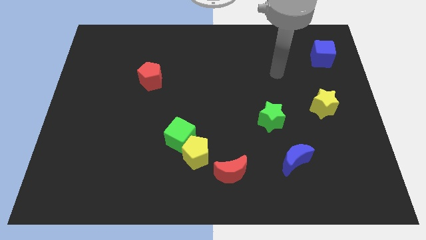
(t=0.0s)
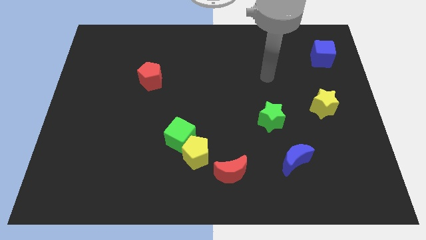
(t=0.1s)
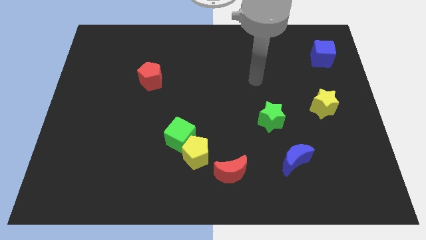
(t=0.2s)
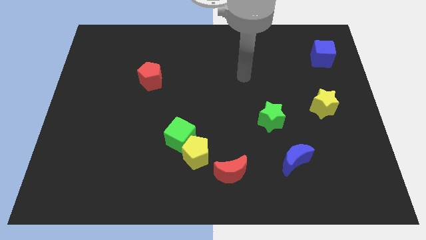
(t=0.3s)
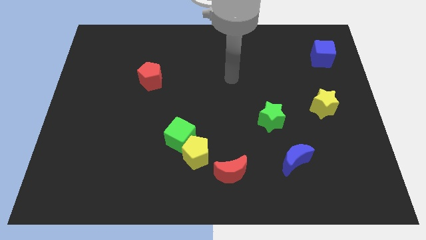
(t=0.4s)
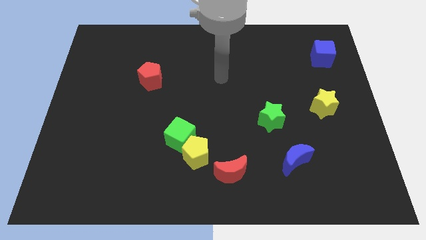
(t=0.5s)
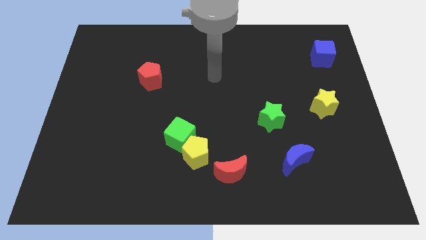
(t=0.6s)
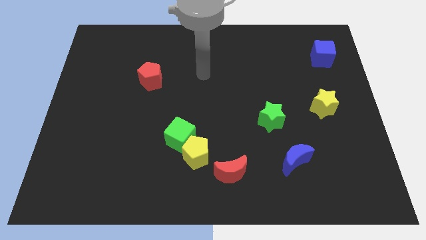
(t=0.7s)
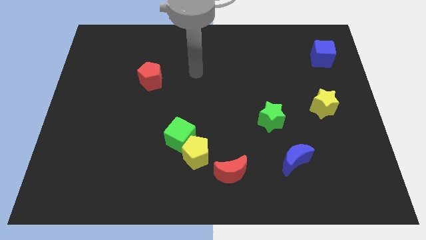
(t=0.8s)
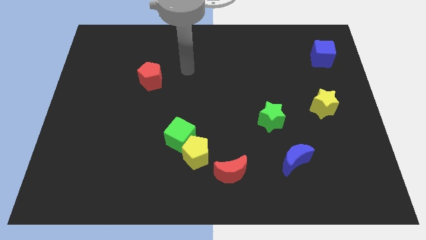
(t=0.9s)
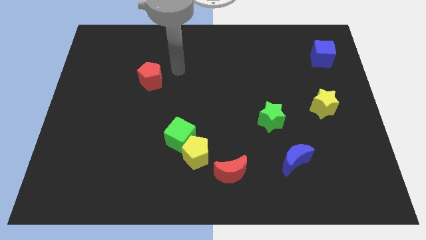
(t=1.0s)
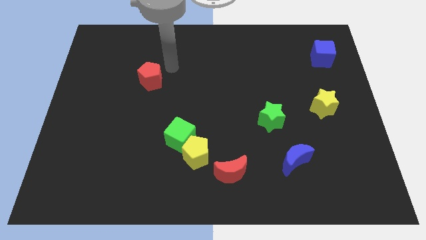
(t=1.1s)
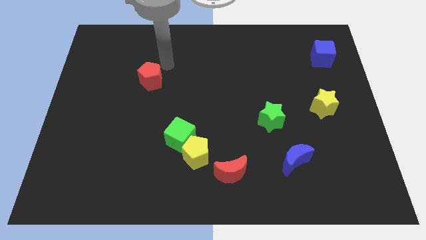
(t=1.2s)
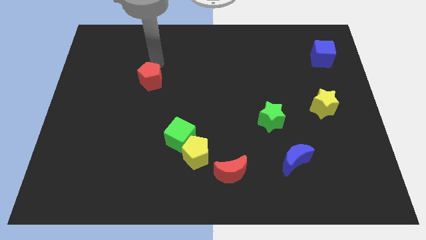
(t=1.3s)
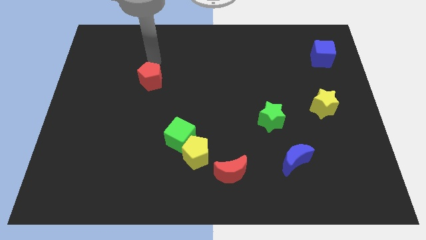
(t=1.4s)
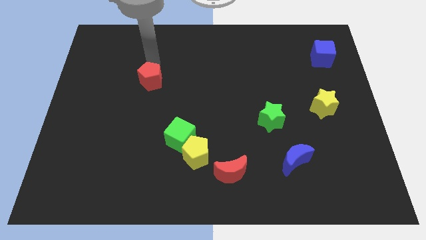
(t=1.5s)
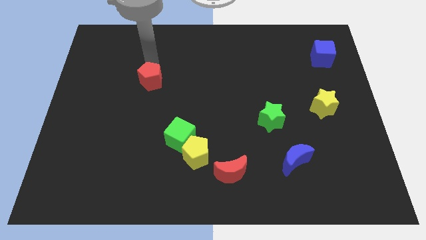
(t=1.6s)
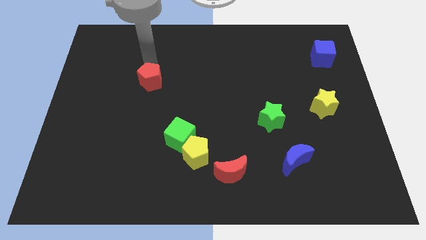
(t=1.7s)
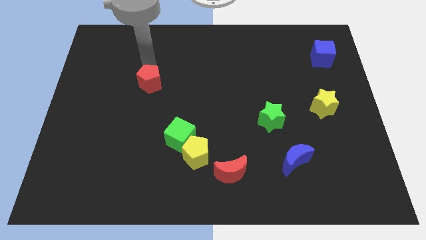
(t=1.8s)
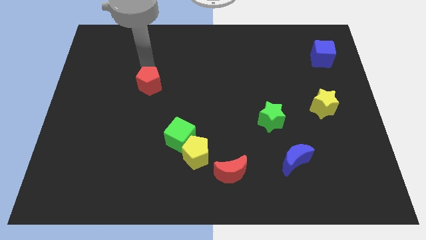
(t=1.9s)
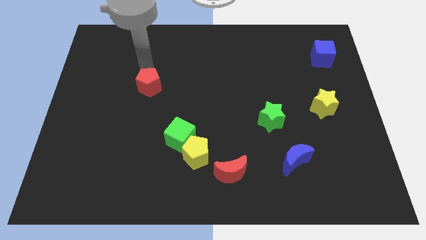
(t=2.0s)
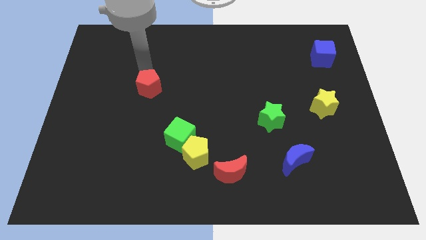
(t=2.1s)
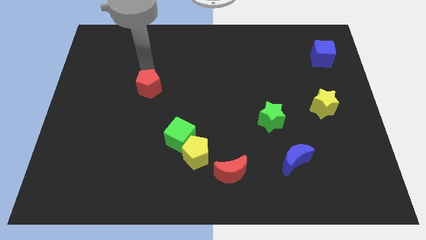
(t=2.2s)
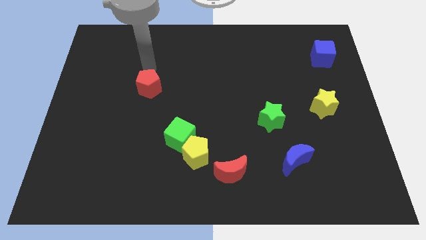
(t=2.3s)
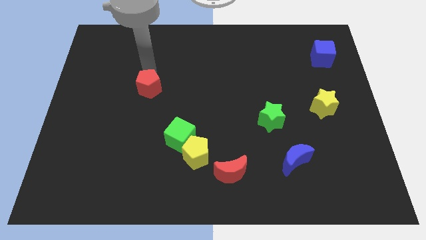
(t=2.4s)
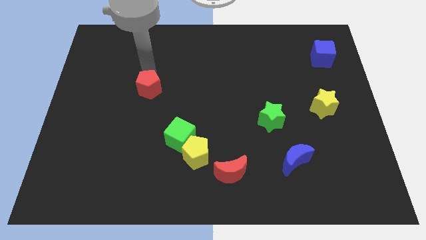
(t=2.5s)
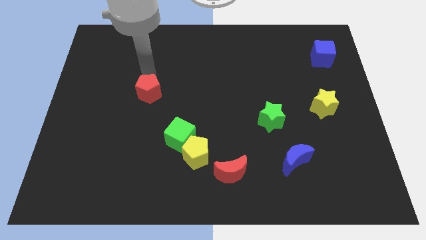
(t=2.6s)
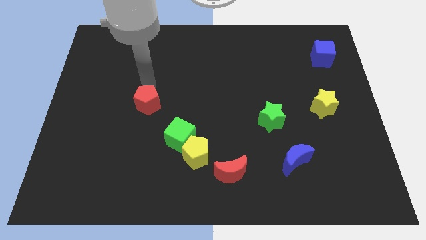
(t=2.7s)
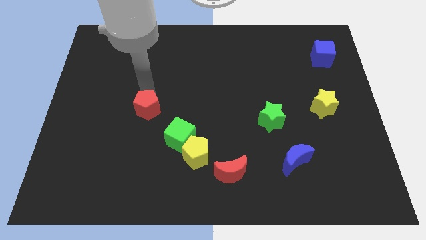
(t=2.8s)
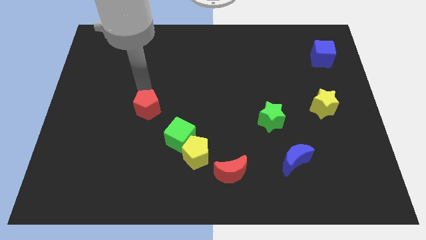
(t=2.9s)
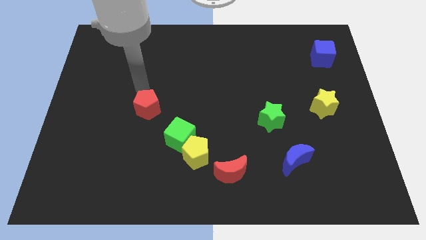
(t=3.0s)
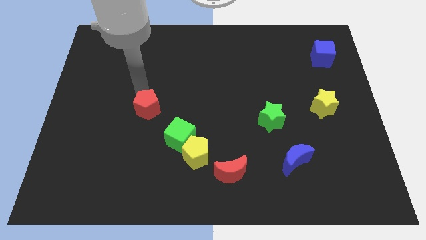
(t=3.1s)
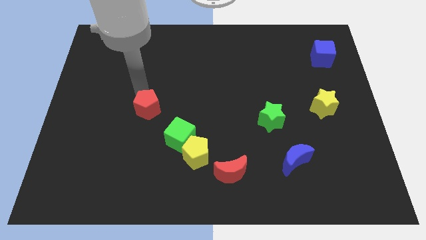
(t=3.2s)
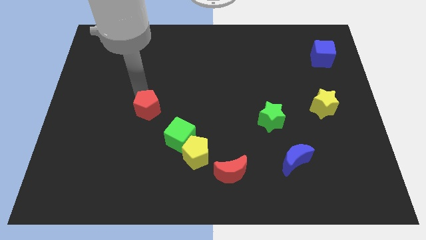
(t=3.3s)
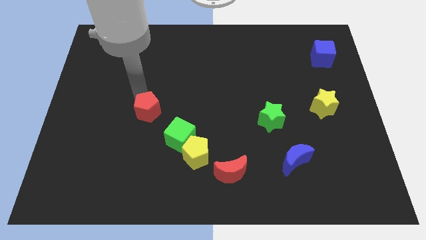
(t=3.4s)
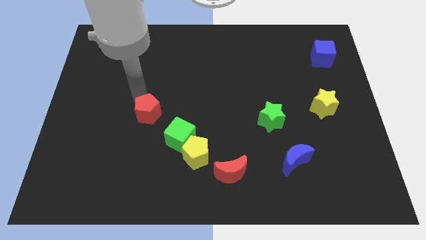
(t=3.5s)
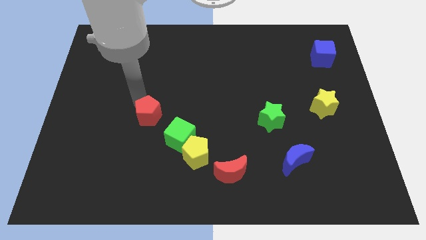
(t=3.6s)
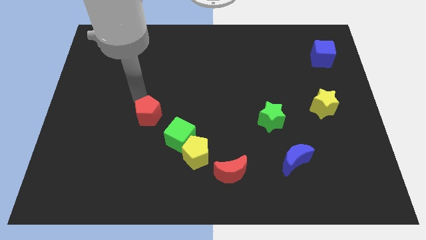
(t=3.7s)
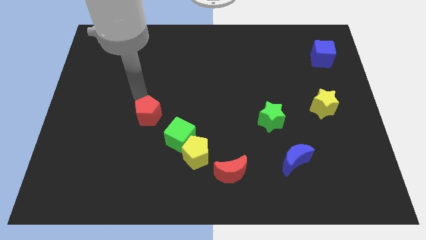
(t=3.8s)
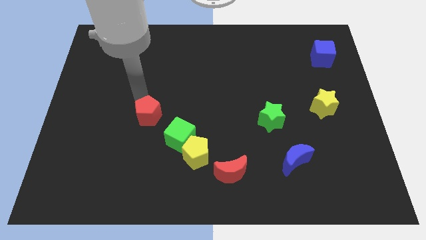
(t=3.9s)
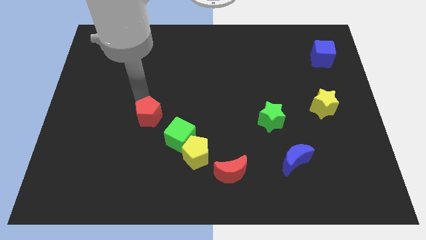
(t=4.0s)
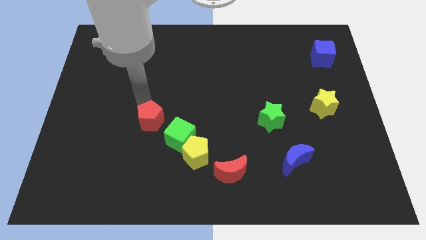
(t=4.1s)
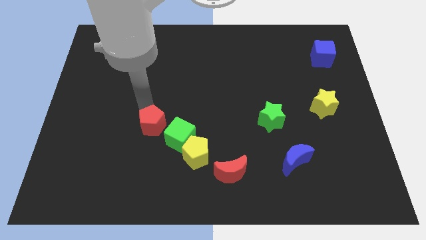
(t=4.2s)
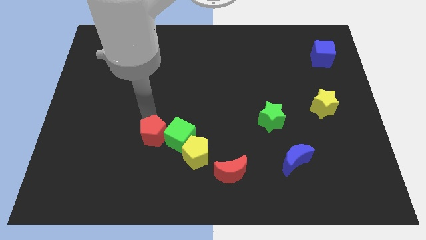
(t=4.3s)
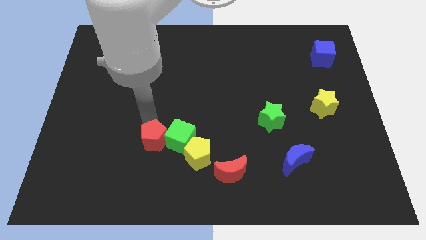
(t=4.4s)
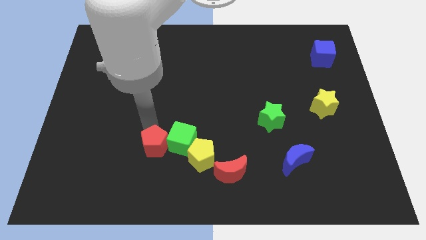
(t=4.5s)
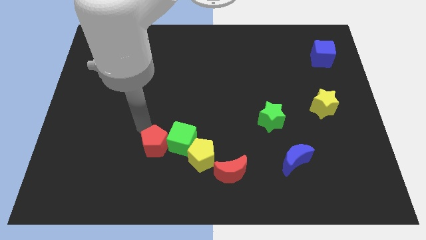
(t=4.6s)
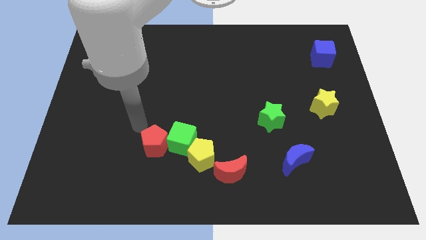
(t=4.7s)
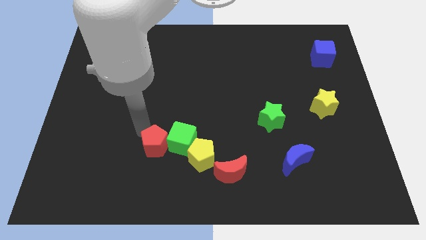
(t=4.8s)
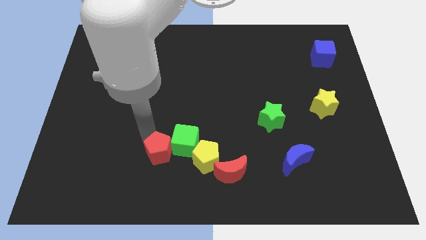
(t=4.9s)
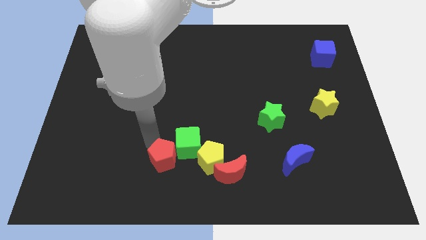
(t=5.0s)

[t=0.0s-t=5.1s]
push the red pentagon to the left of the red moon

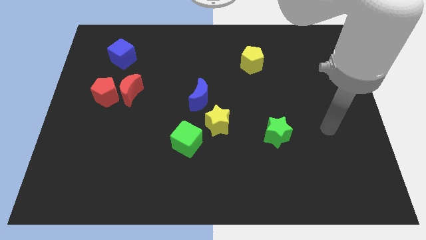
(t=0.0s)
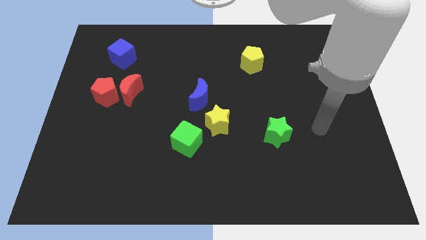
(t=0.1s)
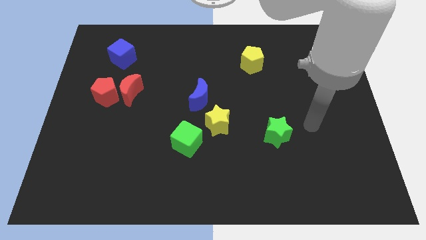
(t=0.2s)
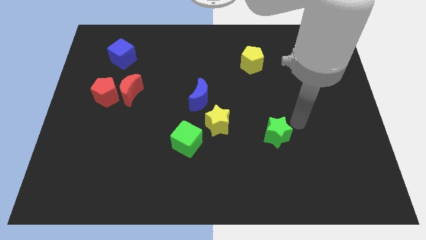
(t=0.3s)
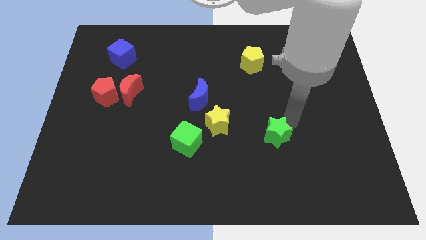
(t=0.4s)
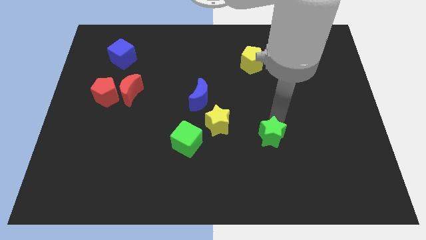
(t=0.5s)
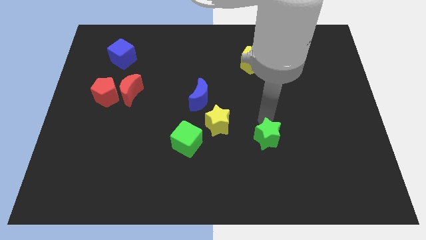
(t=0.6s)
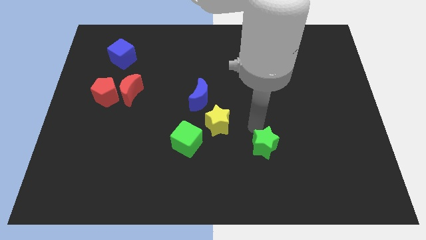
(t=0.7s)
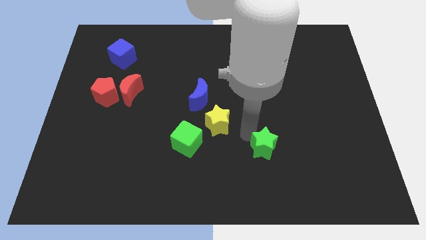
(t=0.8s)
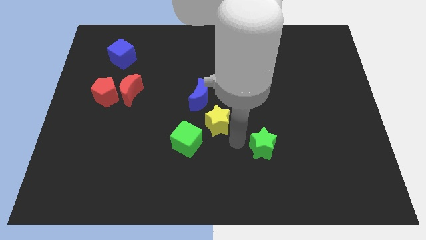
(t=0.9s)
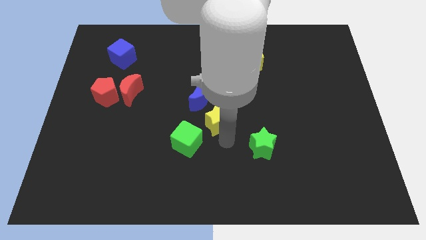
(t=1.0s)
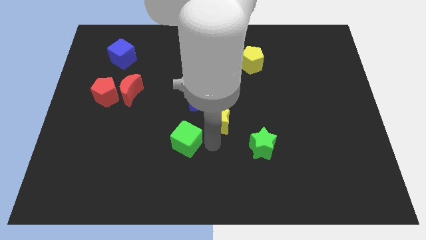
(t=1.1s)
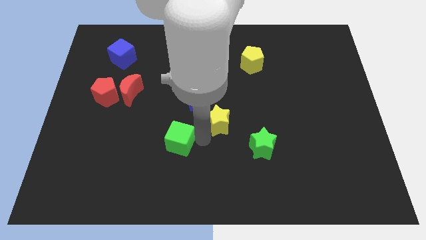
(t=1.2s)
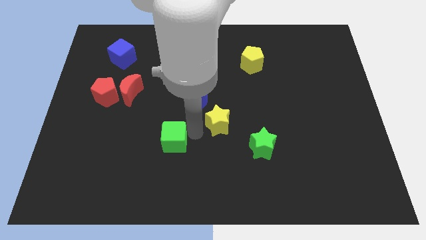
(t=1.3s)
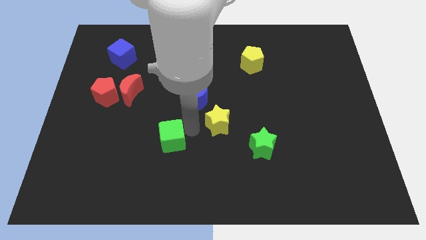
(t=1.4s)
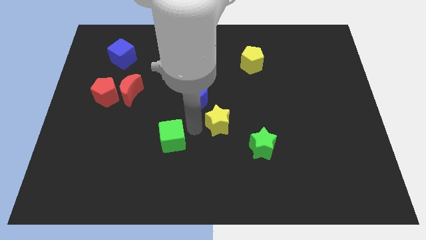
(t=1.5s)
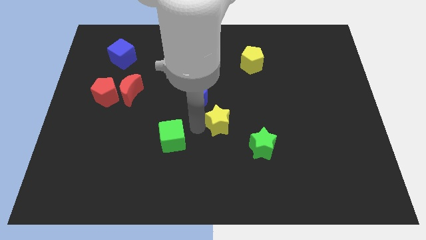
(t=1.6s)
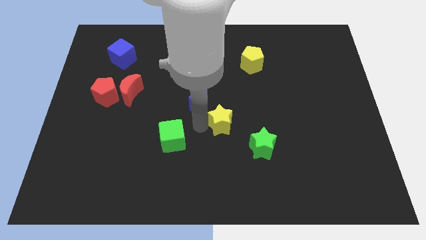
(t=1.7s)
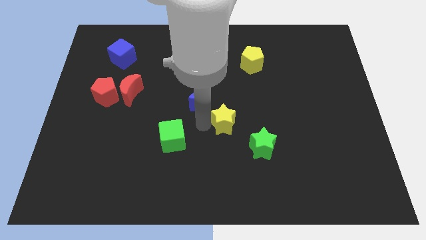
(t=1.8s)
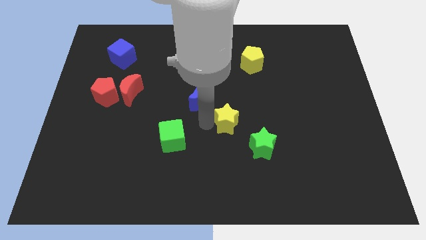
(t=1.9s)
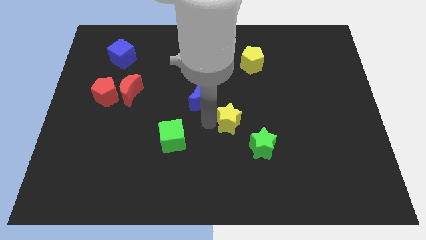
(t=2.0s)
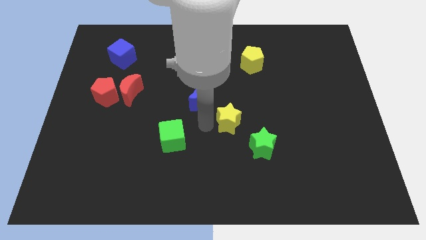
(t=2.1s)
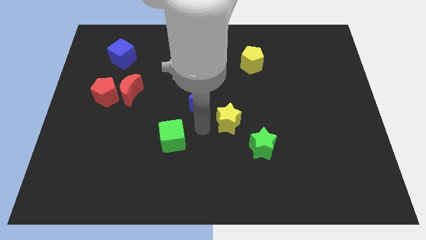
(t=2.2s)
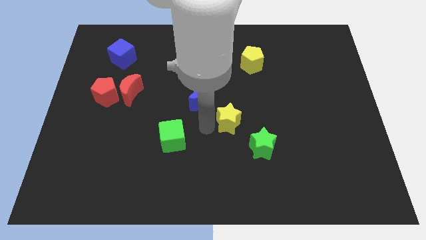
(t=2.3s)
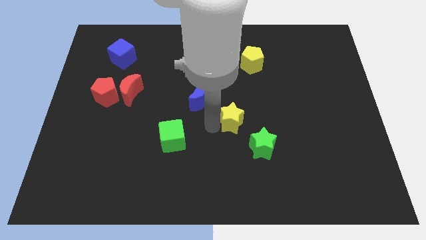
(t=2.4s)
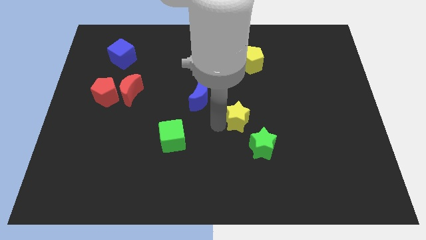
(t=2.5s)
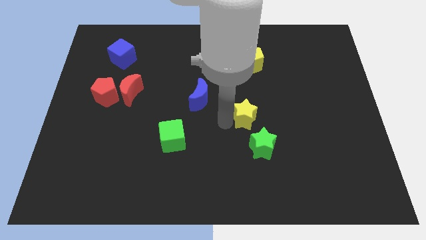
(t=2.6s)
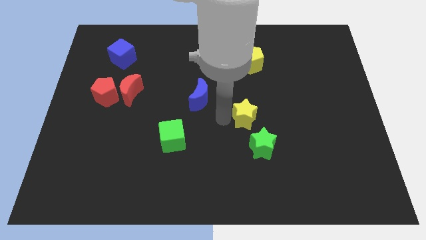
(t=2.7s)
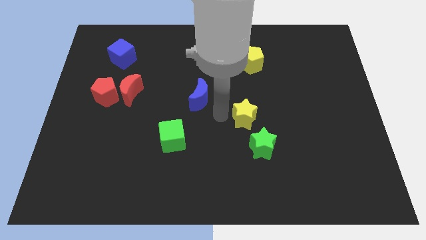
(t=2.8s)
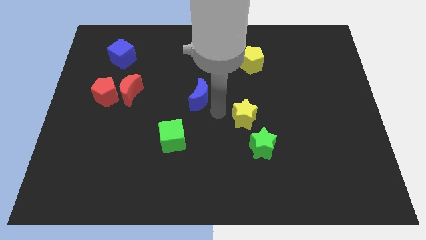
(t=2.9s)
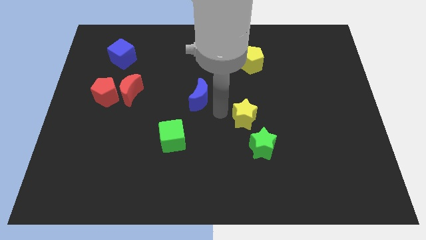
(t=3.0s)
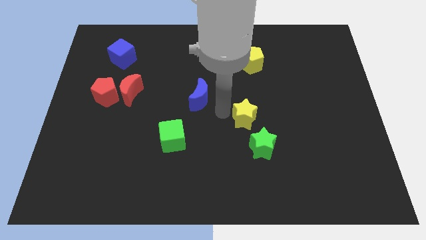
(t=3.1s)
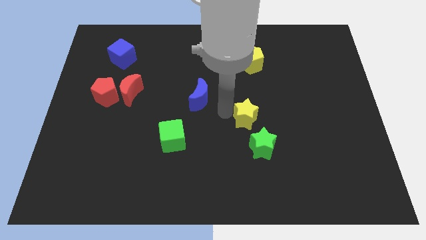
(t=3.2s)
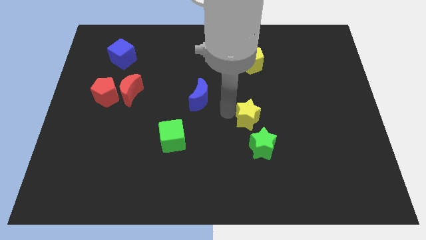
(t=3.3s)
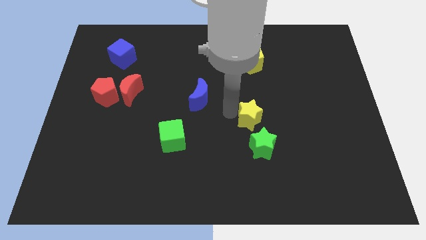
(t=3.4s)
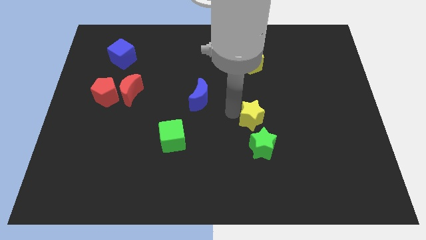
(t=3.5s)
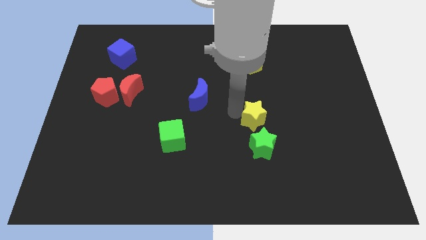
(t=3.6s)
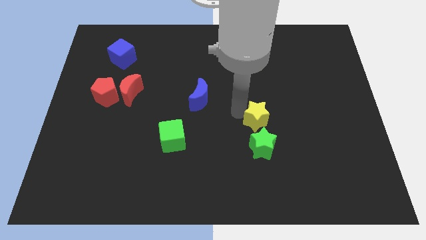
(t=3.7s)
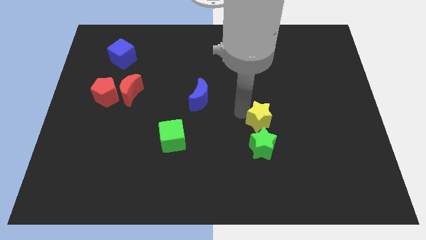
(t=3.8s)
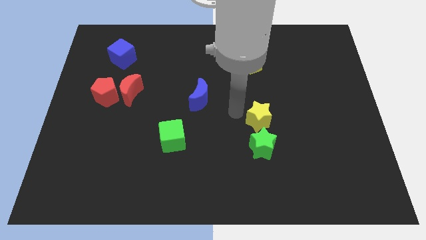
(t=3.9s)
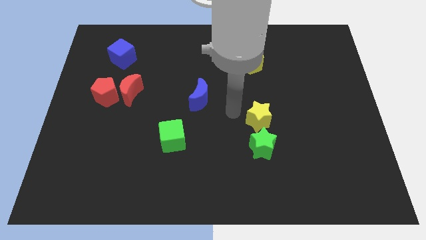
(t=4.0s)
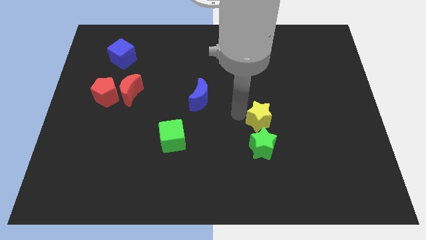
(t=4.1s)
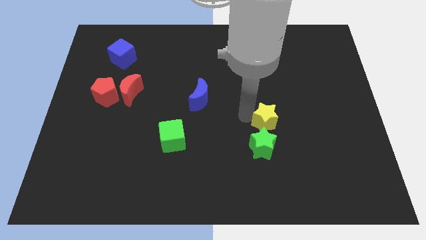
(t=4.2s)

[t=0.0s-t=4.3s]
move the yellow star diagonally up and to the right of the green star
